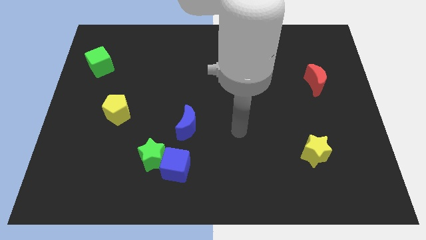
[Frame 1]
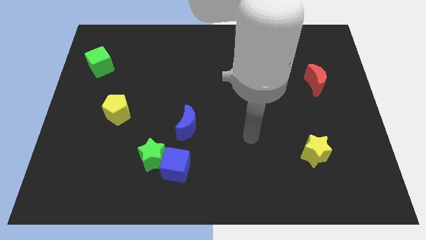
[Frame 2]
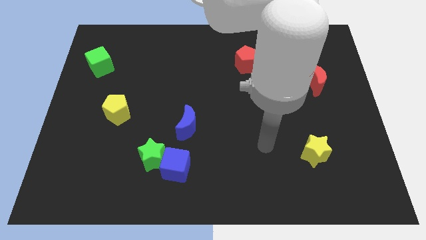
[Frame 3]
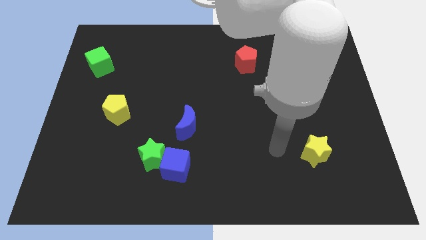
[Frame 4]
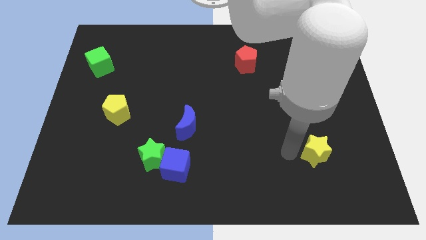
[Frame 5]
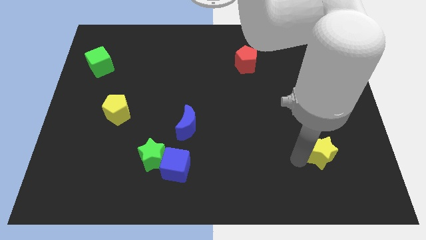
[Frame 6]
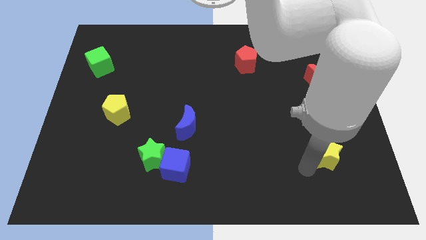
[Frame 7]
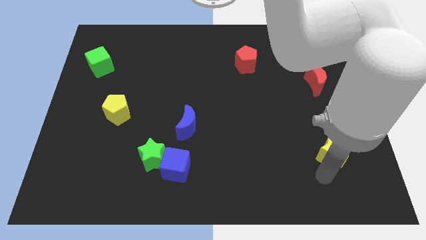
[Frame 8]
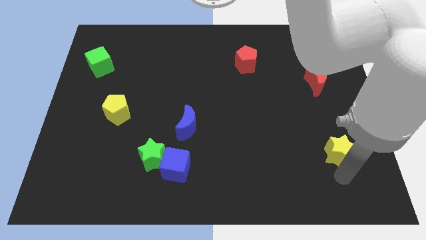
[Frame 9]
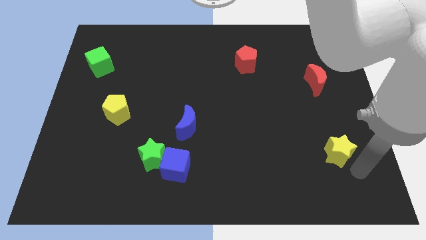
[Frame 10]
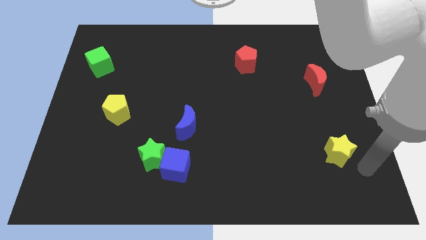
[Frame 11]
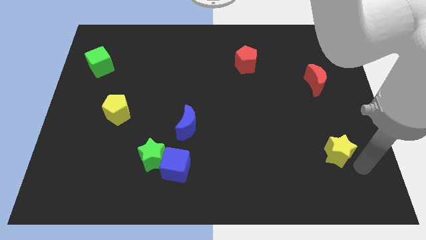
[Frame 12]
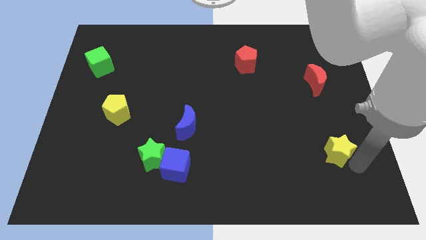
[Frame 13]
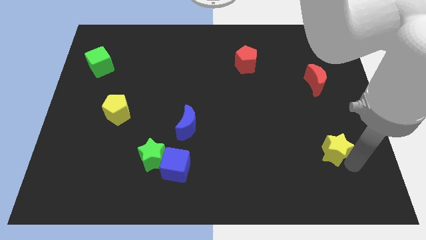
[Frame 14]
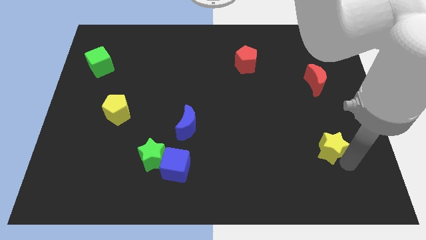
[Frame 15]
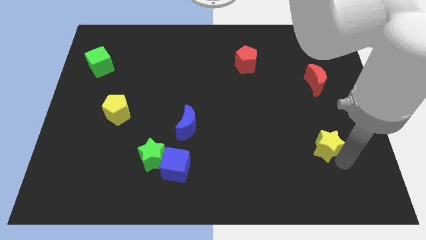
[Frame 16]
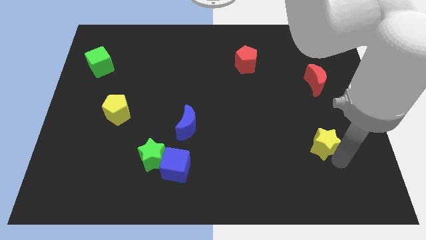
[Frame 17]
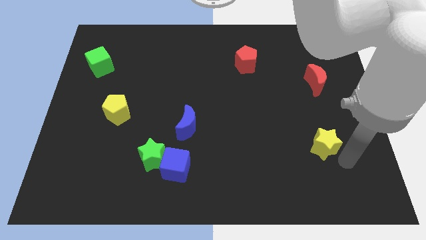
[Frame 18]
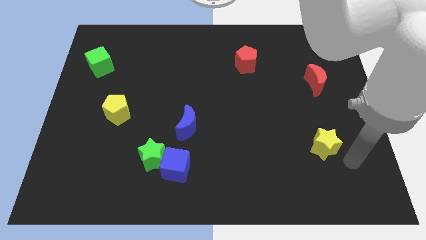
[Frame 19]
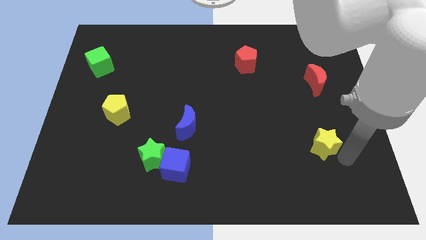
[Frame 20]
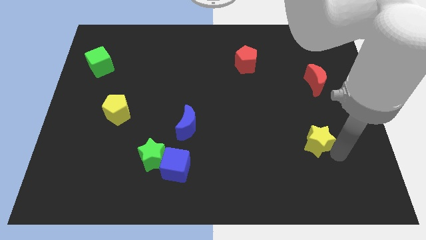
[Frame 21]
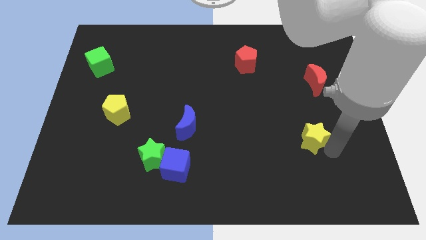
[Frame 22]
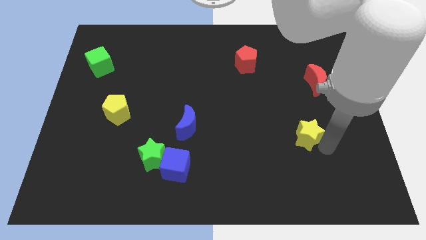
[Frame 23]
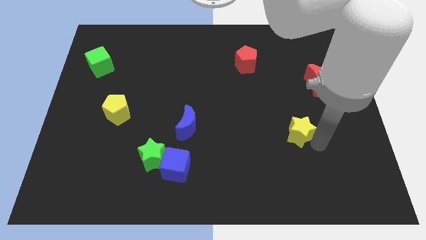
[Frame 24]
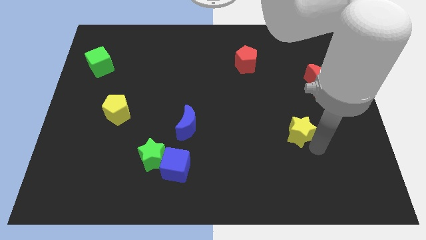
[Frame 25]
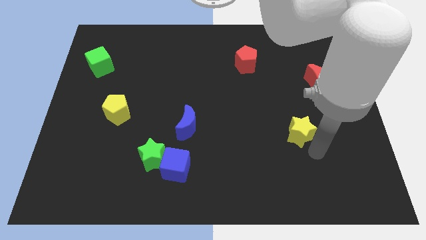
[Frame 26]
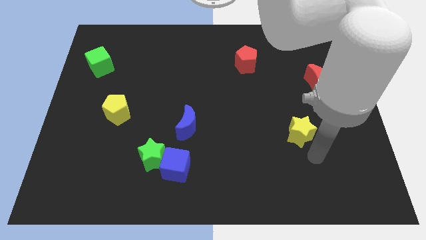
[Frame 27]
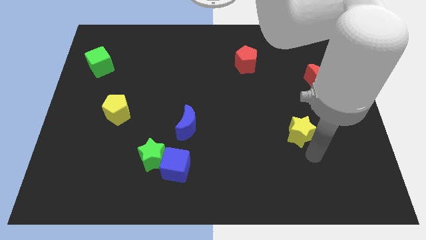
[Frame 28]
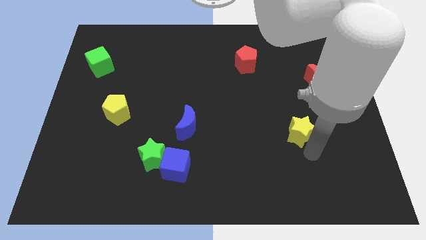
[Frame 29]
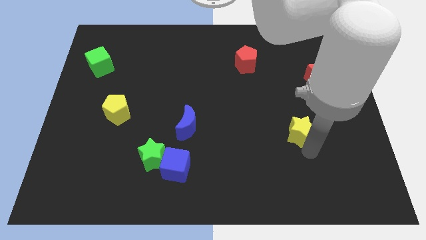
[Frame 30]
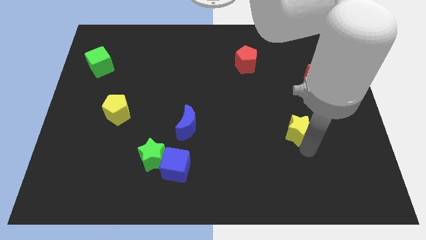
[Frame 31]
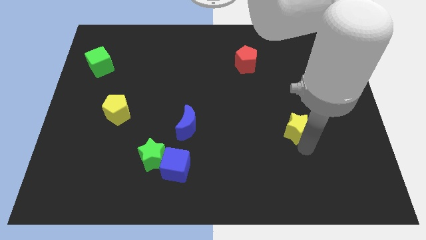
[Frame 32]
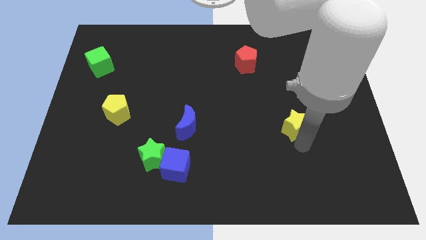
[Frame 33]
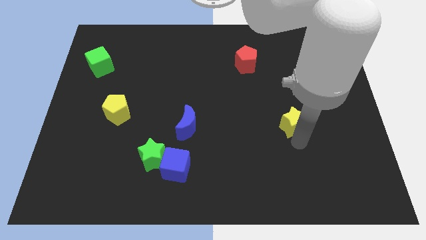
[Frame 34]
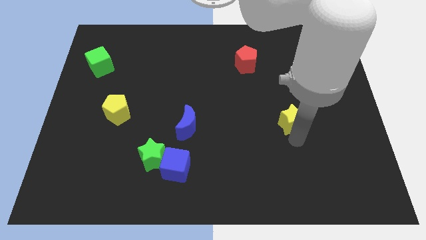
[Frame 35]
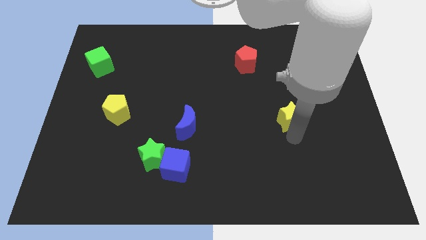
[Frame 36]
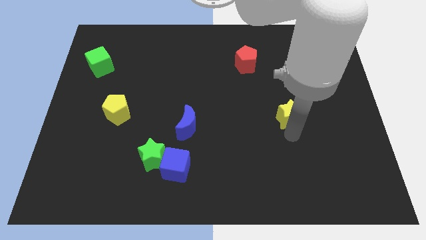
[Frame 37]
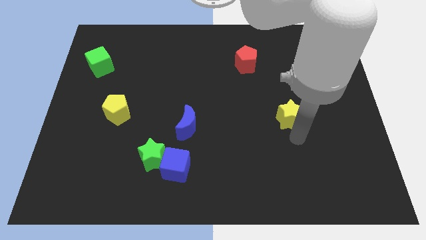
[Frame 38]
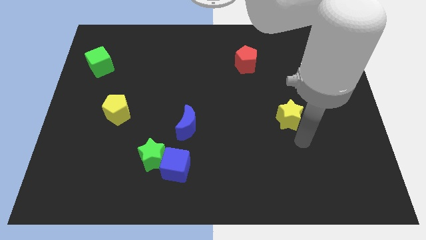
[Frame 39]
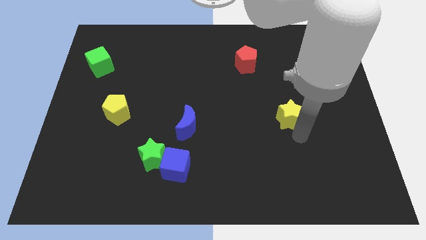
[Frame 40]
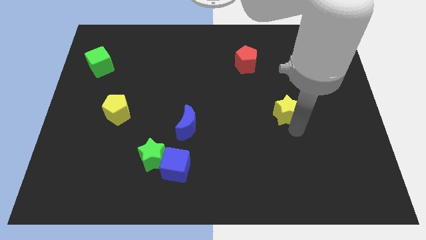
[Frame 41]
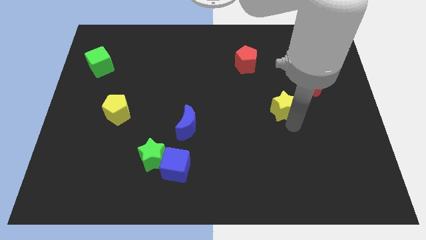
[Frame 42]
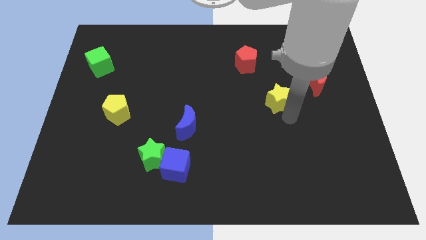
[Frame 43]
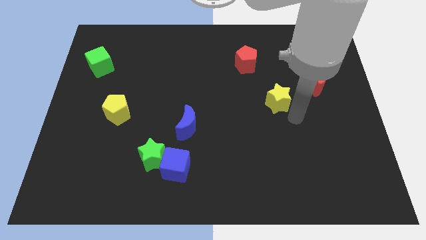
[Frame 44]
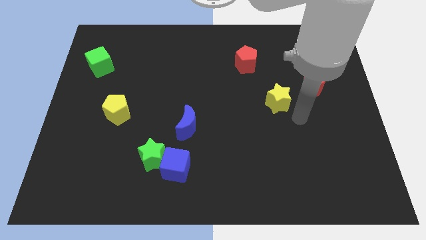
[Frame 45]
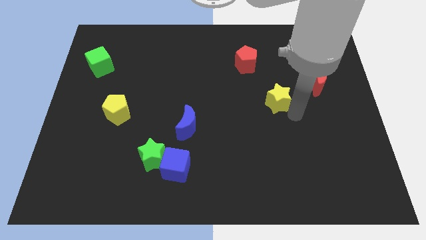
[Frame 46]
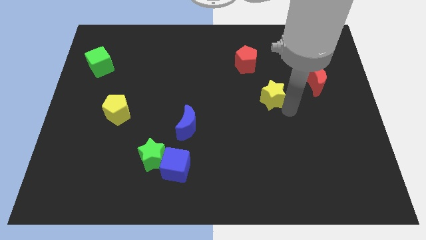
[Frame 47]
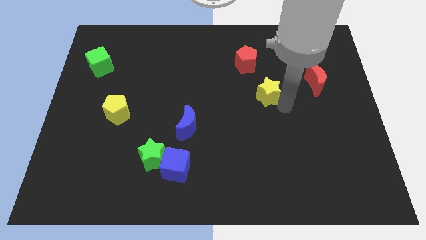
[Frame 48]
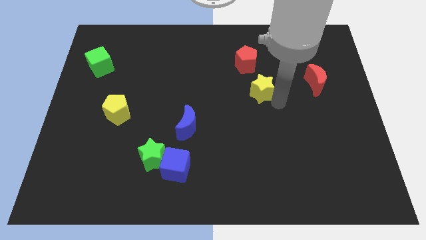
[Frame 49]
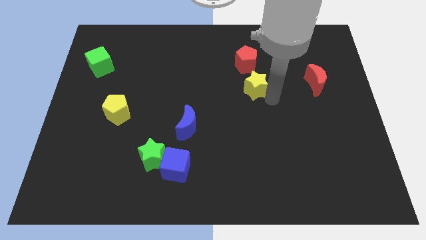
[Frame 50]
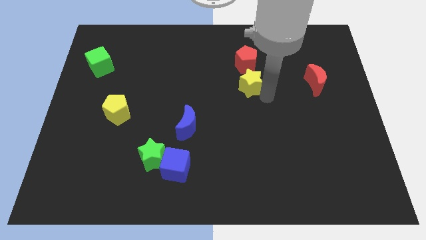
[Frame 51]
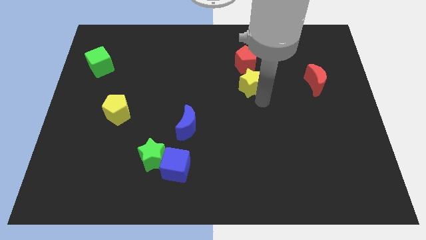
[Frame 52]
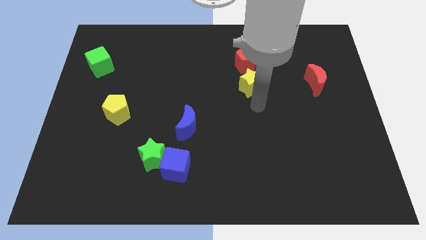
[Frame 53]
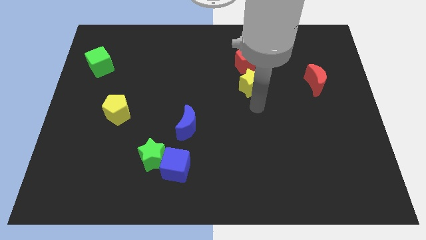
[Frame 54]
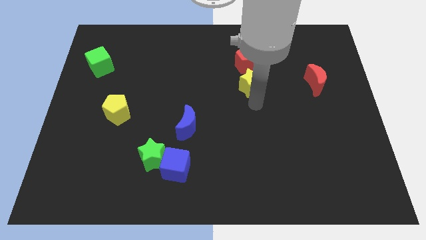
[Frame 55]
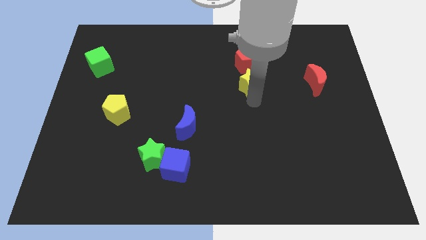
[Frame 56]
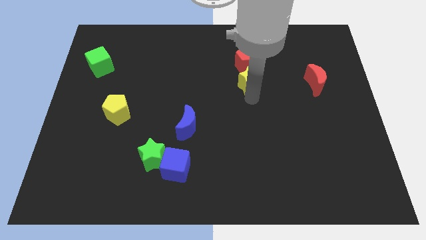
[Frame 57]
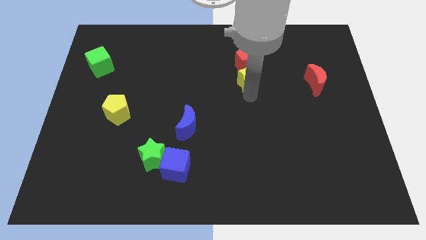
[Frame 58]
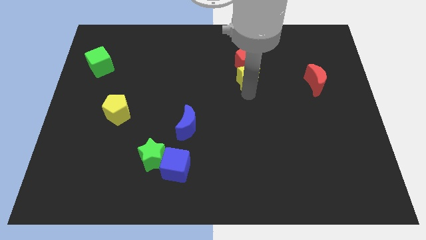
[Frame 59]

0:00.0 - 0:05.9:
slide the yellow star close to the red pentagon

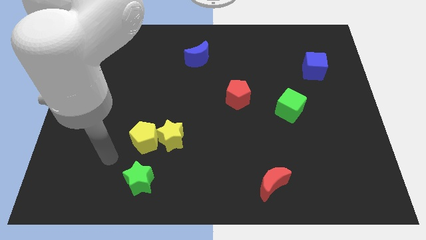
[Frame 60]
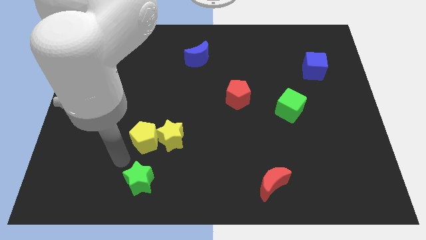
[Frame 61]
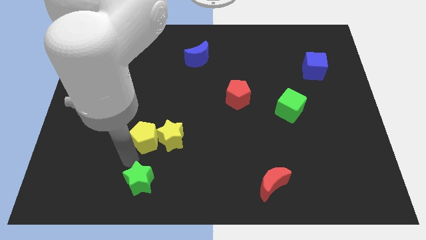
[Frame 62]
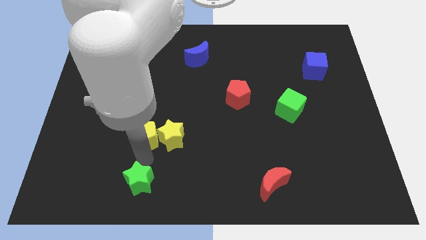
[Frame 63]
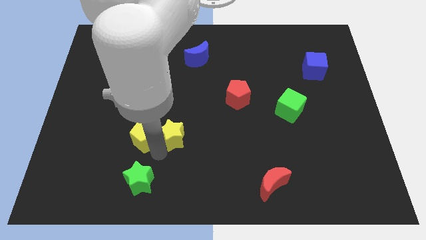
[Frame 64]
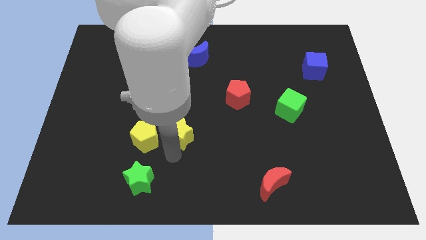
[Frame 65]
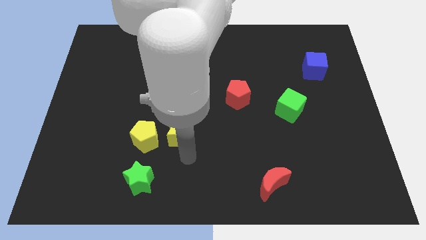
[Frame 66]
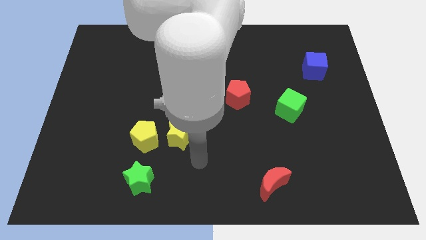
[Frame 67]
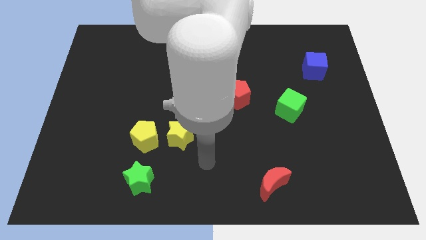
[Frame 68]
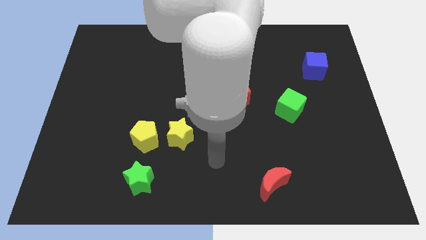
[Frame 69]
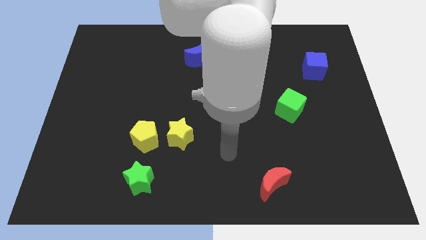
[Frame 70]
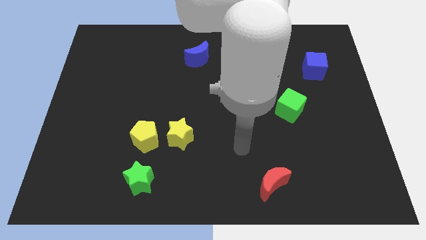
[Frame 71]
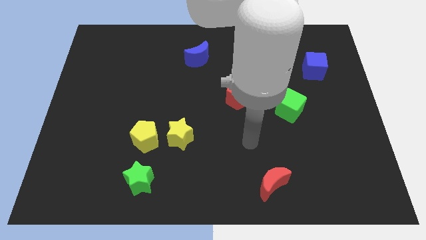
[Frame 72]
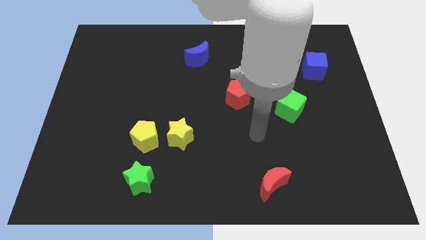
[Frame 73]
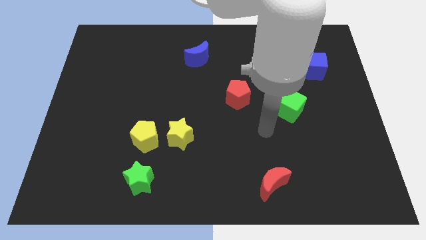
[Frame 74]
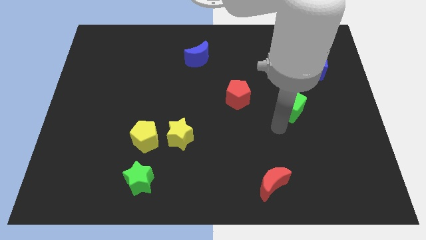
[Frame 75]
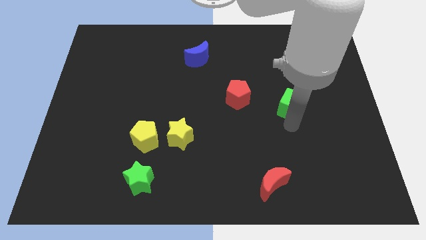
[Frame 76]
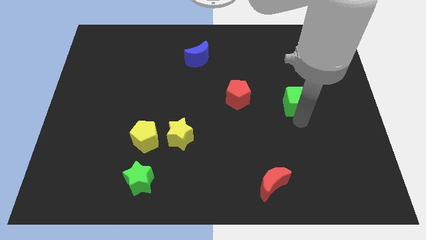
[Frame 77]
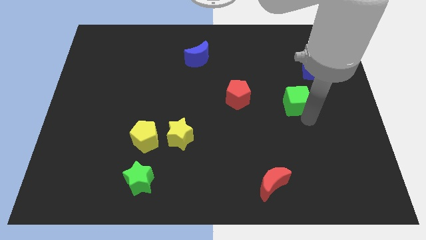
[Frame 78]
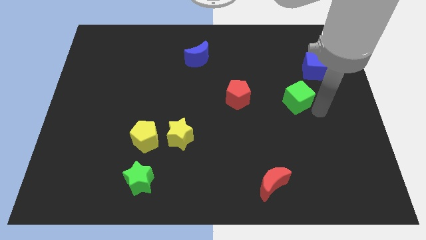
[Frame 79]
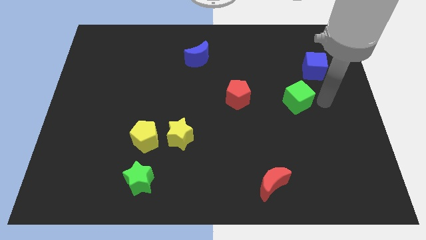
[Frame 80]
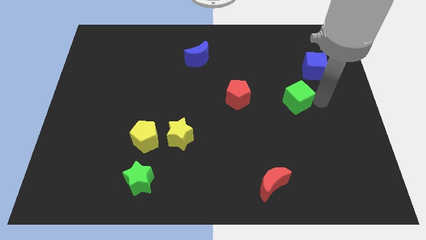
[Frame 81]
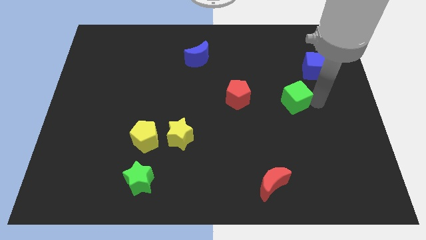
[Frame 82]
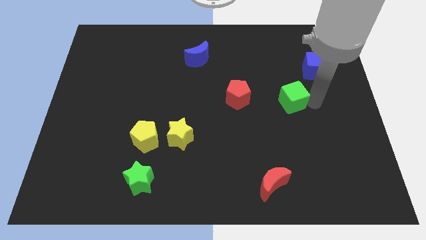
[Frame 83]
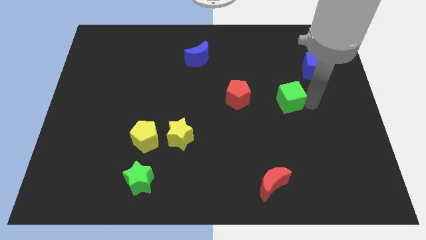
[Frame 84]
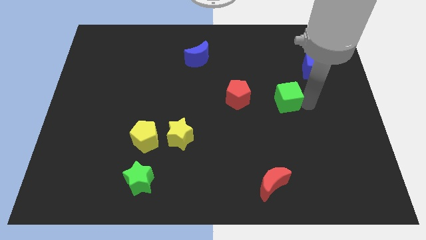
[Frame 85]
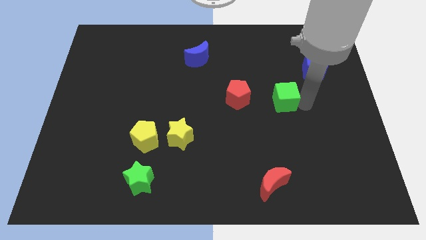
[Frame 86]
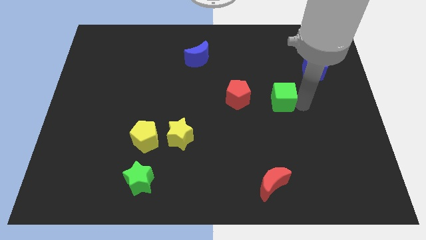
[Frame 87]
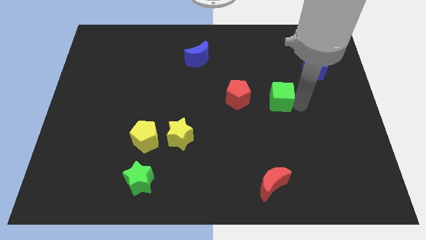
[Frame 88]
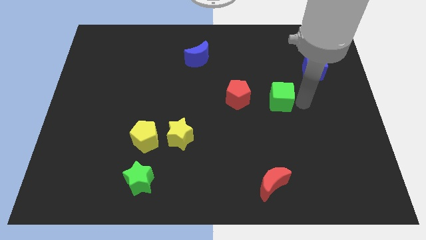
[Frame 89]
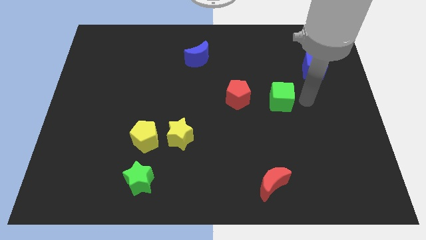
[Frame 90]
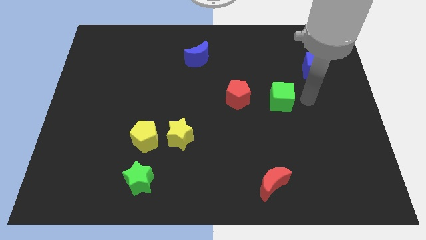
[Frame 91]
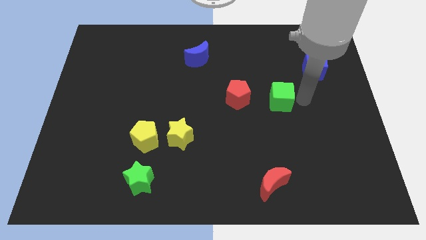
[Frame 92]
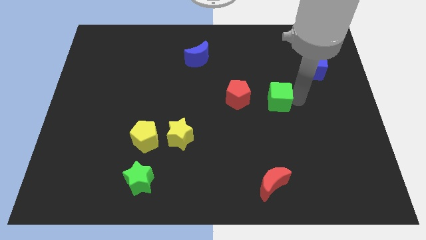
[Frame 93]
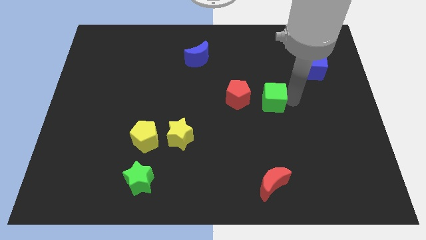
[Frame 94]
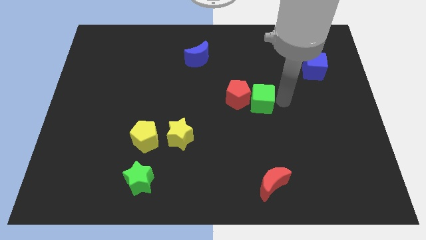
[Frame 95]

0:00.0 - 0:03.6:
put the green cube next to the red pentagon
